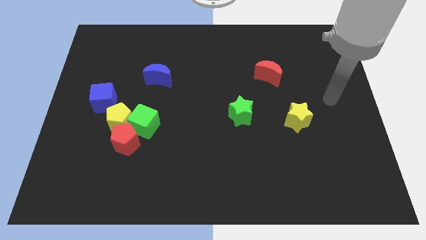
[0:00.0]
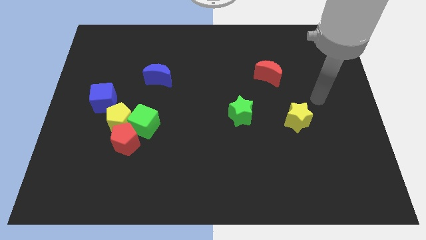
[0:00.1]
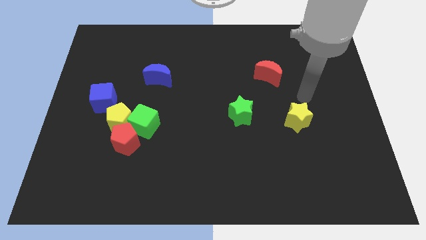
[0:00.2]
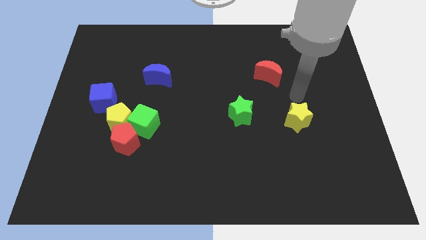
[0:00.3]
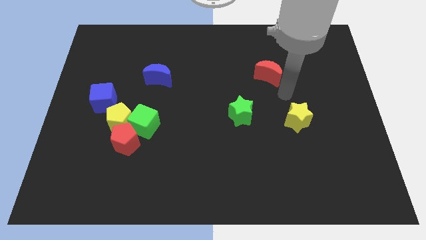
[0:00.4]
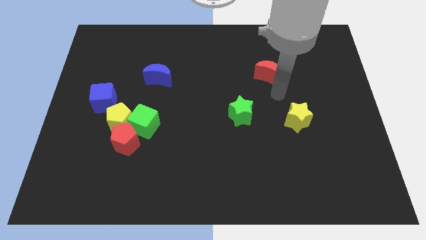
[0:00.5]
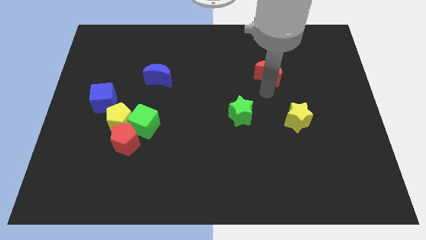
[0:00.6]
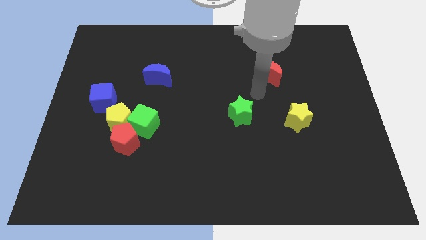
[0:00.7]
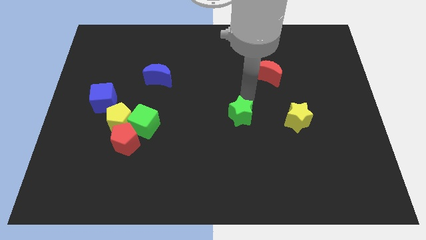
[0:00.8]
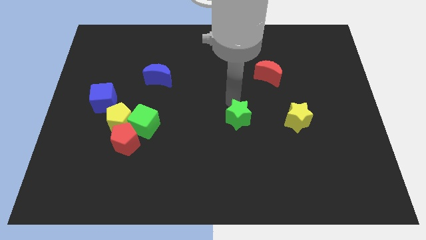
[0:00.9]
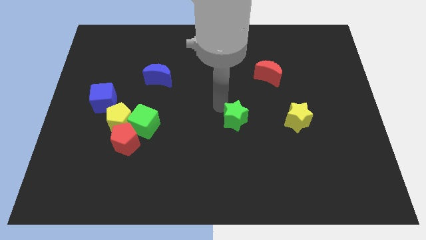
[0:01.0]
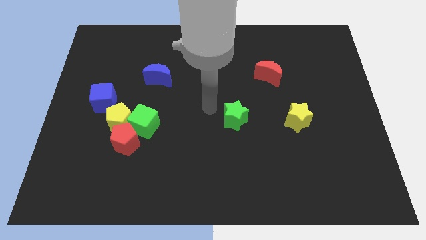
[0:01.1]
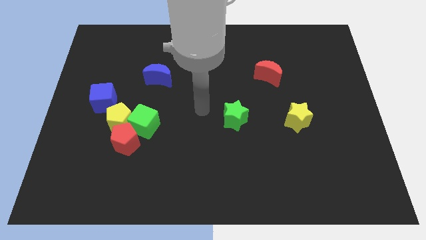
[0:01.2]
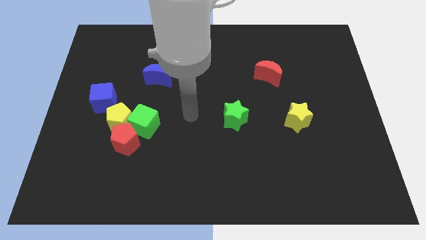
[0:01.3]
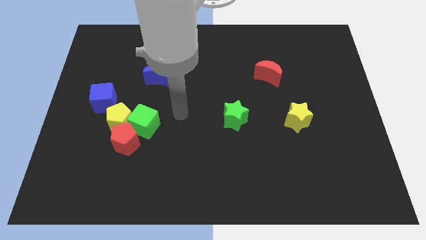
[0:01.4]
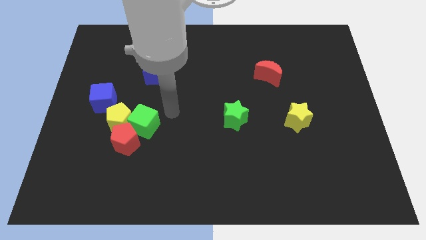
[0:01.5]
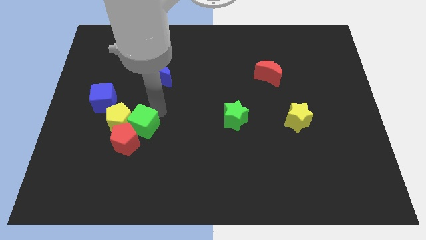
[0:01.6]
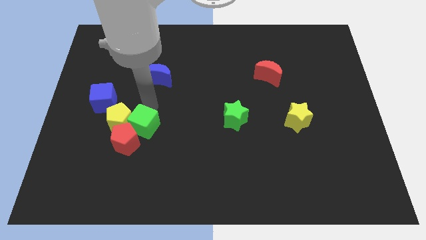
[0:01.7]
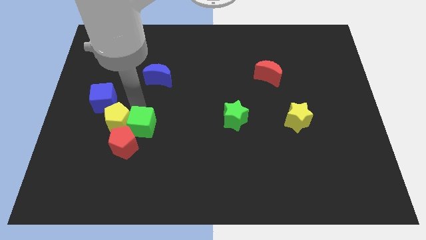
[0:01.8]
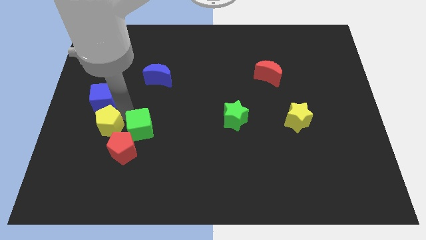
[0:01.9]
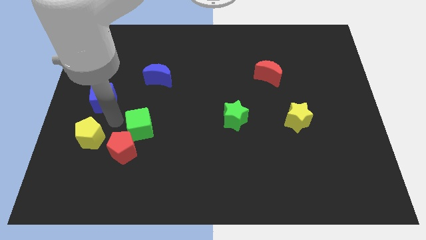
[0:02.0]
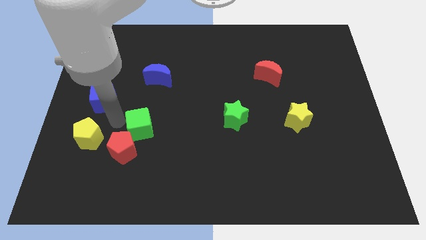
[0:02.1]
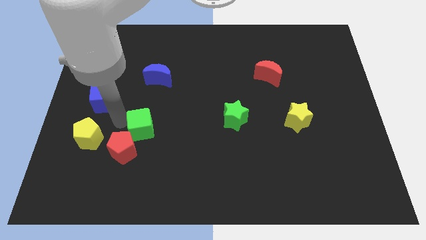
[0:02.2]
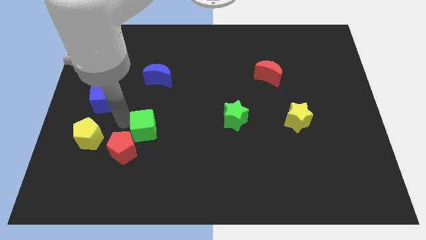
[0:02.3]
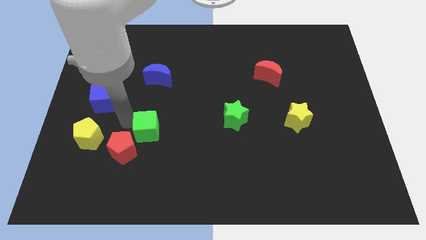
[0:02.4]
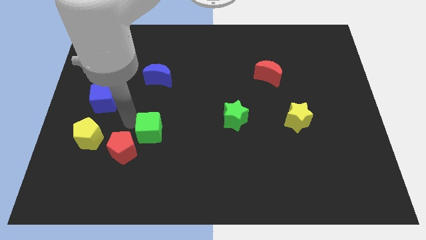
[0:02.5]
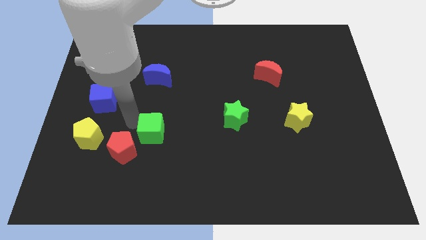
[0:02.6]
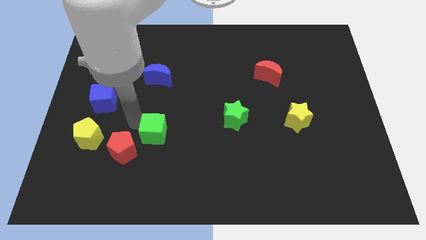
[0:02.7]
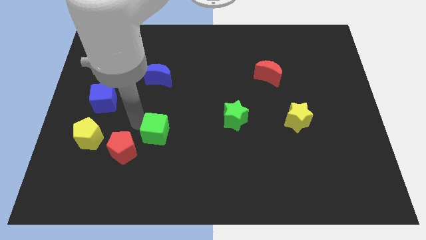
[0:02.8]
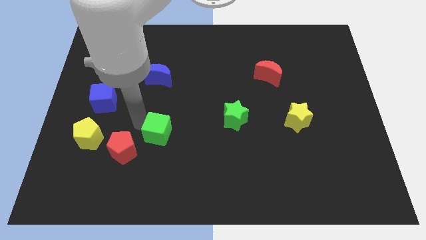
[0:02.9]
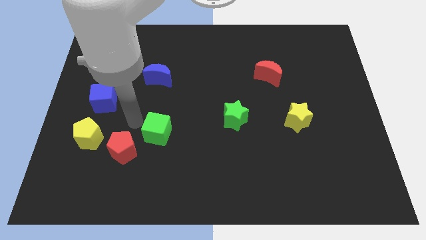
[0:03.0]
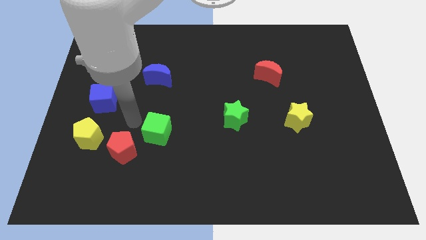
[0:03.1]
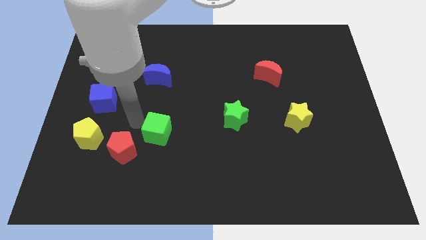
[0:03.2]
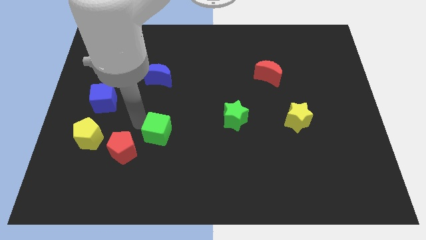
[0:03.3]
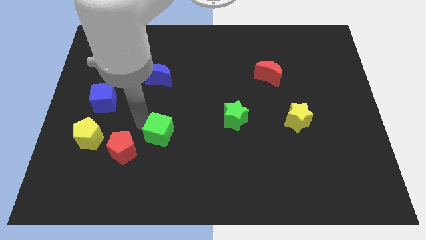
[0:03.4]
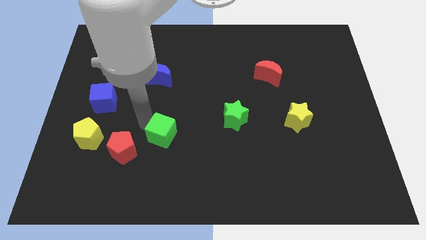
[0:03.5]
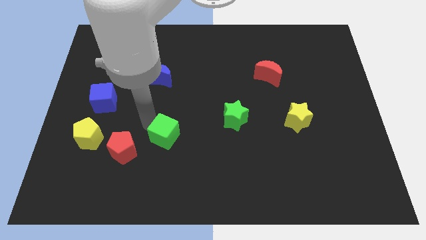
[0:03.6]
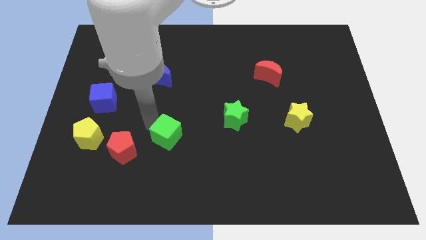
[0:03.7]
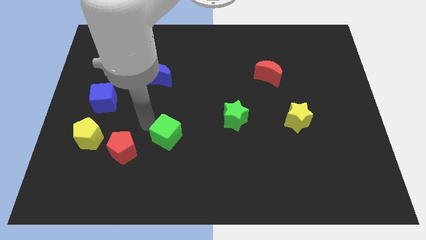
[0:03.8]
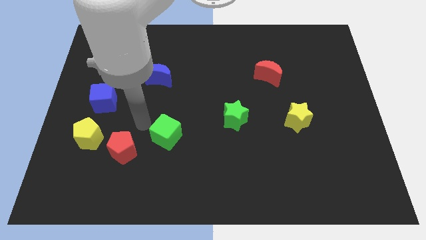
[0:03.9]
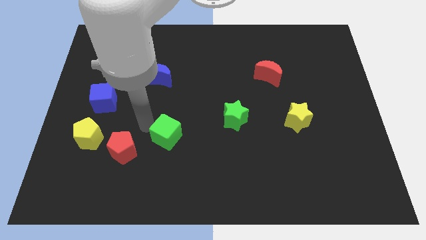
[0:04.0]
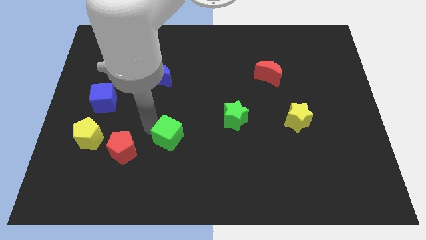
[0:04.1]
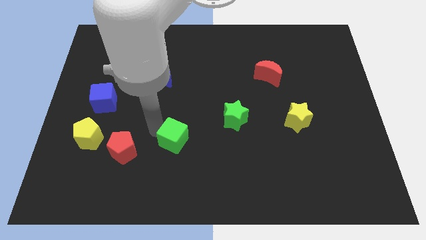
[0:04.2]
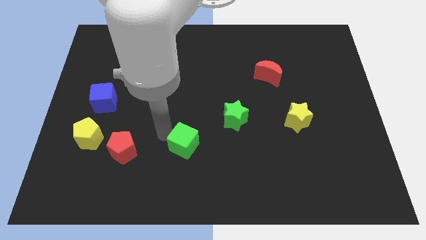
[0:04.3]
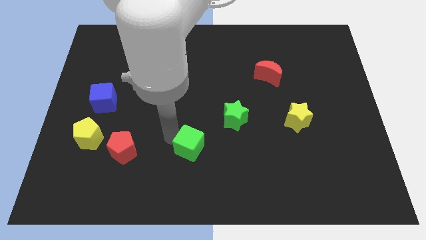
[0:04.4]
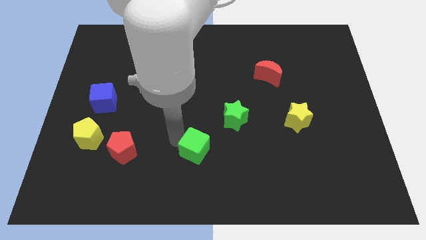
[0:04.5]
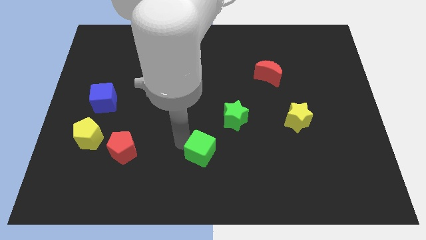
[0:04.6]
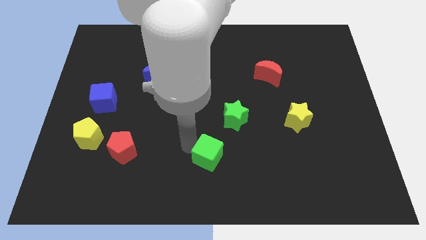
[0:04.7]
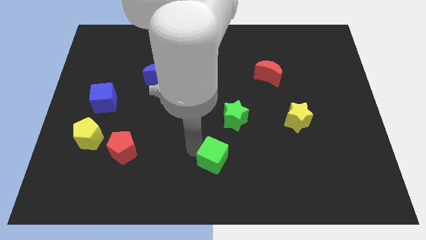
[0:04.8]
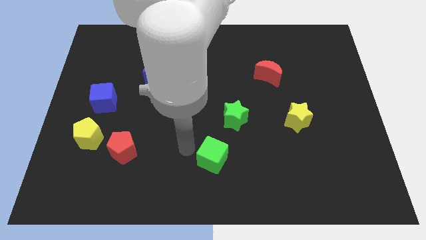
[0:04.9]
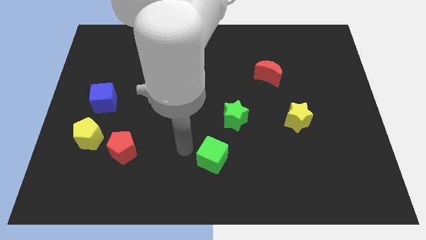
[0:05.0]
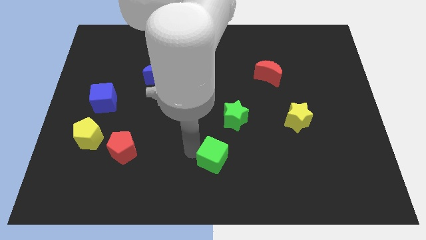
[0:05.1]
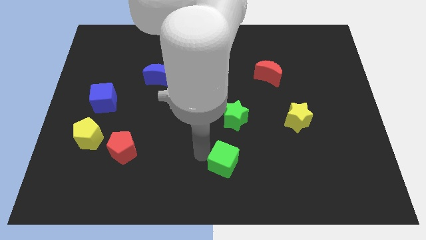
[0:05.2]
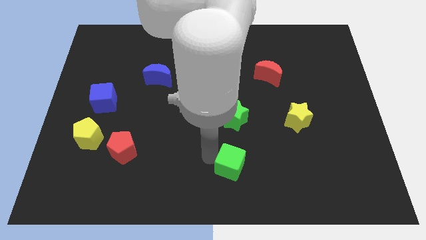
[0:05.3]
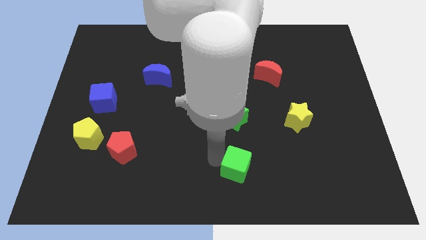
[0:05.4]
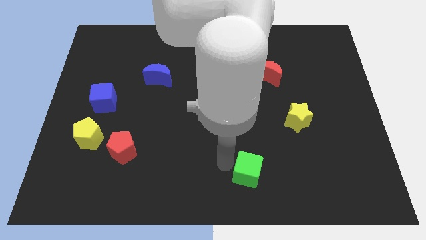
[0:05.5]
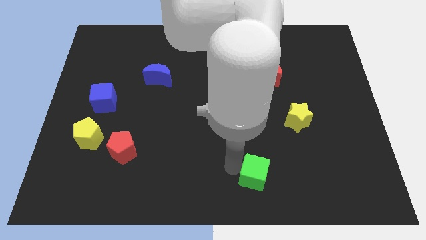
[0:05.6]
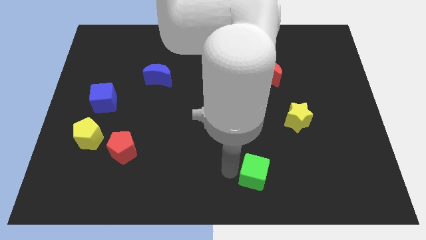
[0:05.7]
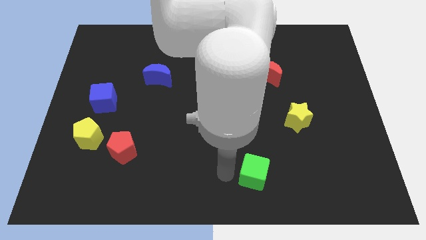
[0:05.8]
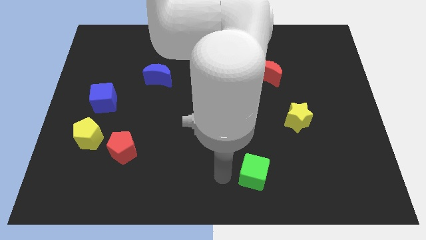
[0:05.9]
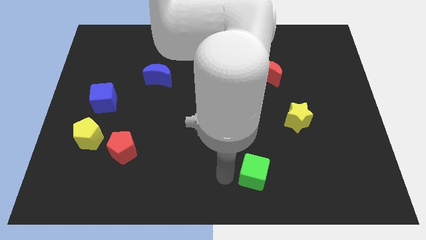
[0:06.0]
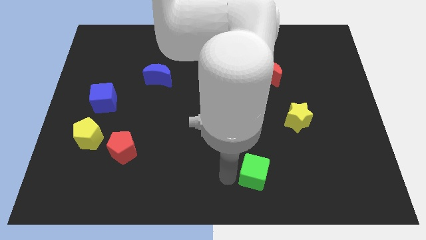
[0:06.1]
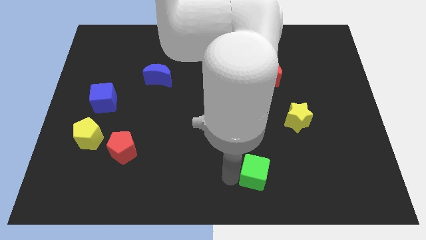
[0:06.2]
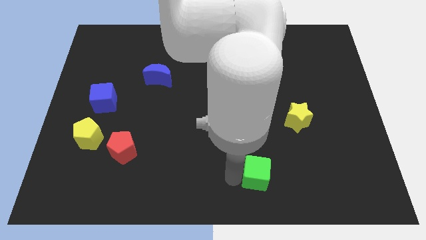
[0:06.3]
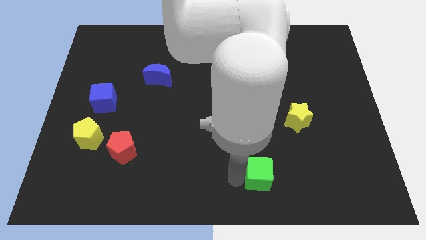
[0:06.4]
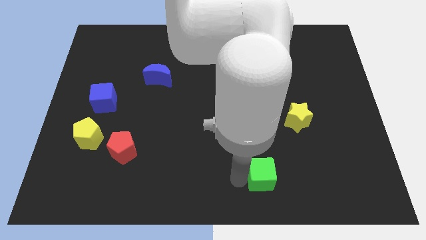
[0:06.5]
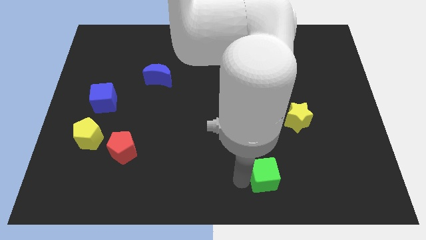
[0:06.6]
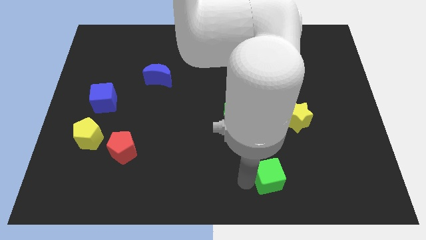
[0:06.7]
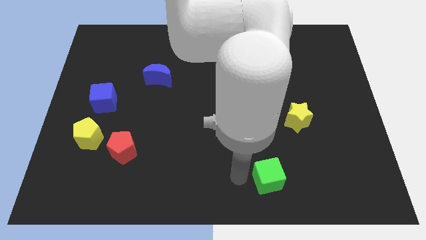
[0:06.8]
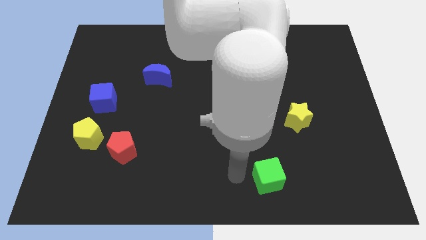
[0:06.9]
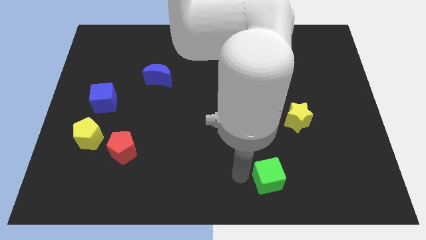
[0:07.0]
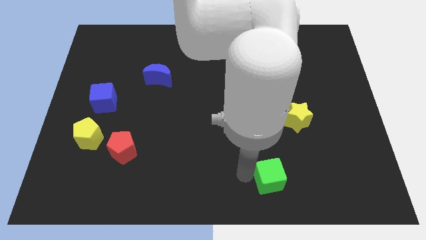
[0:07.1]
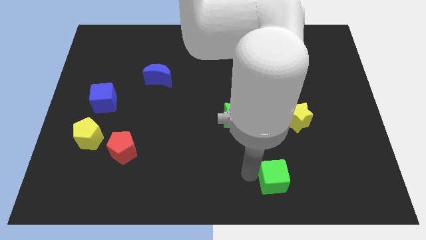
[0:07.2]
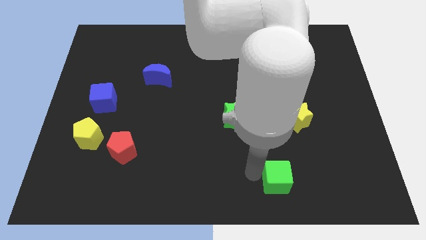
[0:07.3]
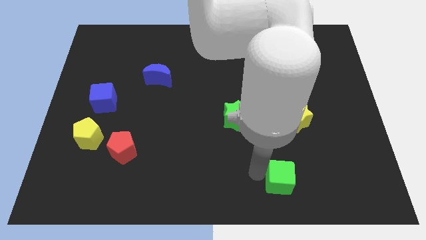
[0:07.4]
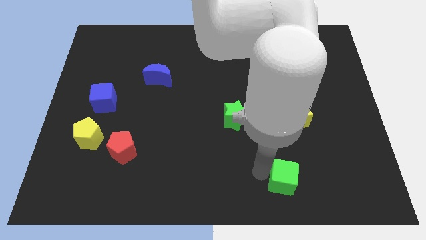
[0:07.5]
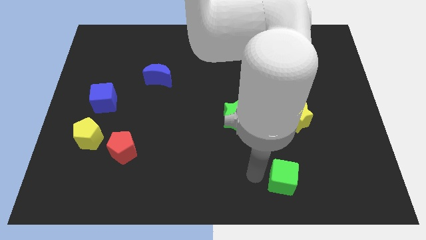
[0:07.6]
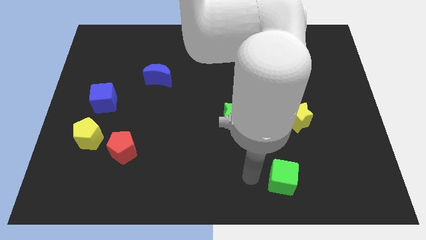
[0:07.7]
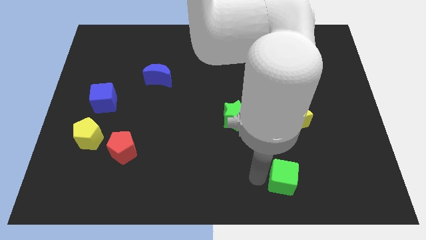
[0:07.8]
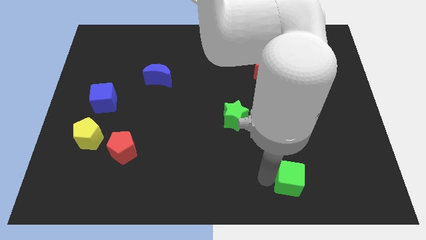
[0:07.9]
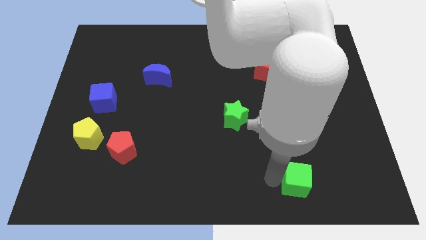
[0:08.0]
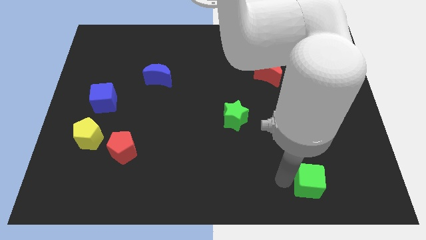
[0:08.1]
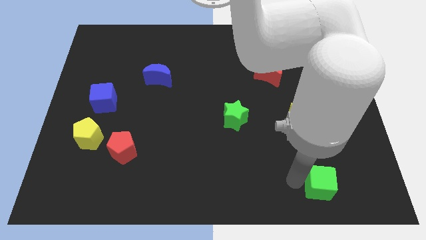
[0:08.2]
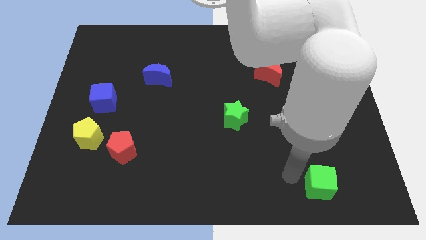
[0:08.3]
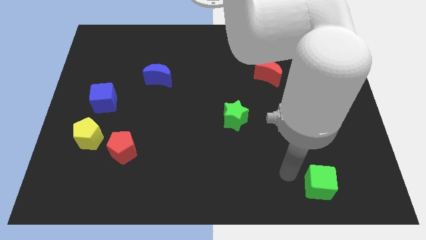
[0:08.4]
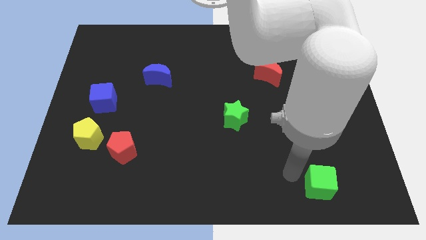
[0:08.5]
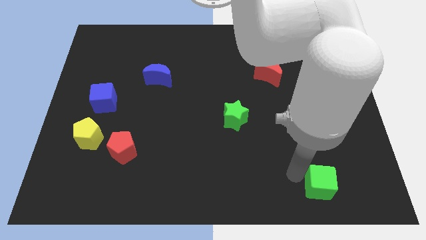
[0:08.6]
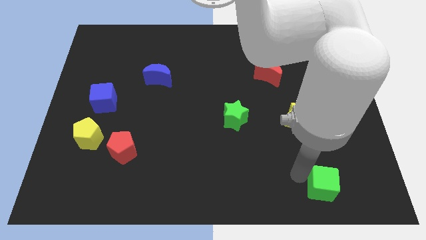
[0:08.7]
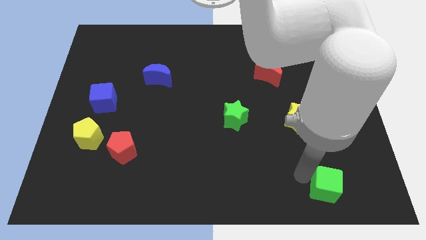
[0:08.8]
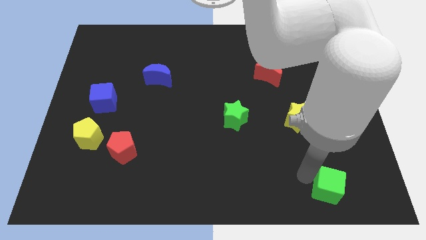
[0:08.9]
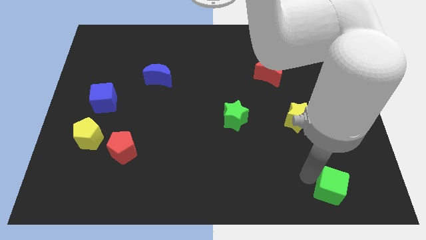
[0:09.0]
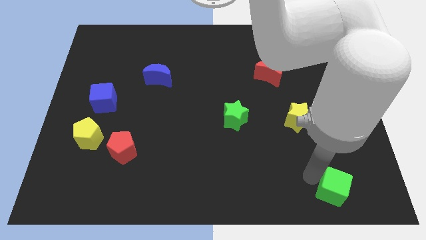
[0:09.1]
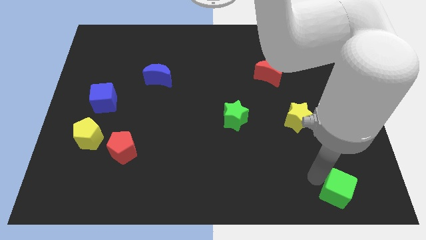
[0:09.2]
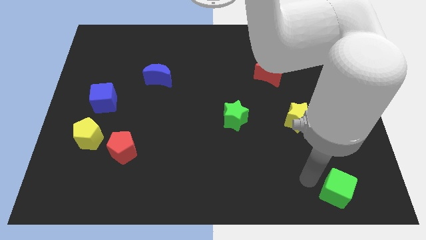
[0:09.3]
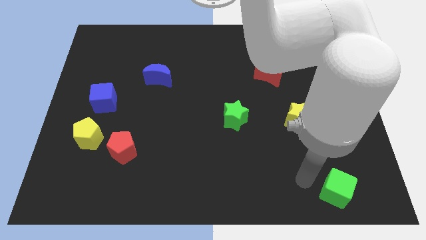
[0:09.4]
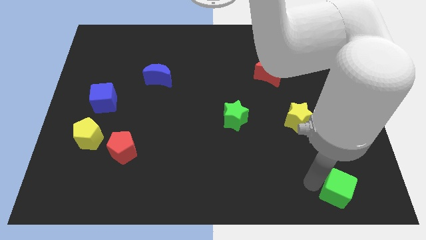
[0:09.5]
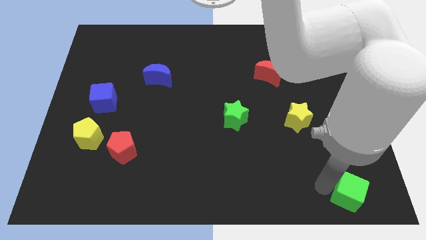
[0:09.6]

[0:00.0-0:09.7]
slide the green cube to the bottom right of the board
